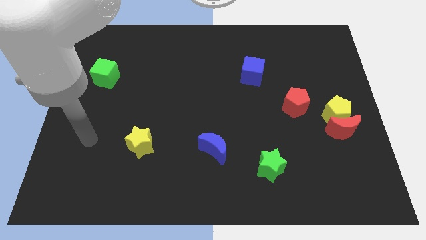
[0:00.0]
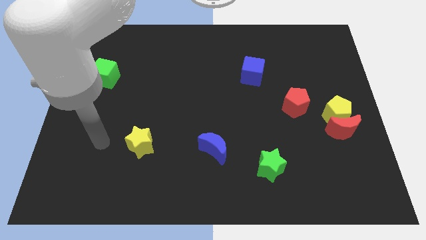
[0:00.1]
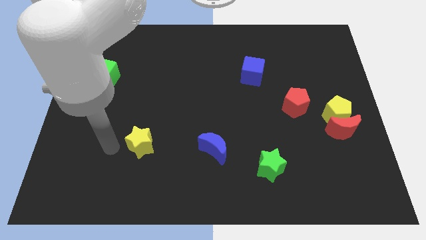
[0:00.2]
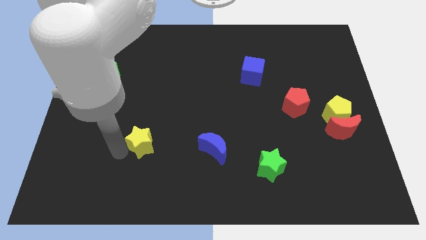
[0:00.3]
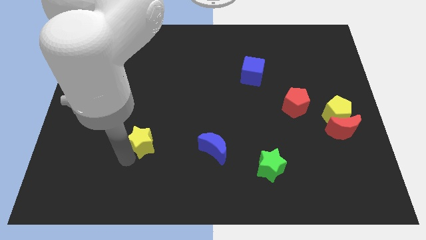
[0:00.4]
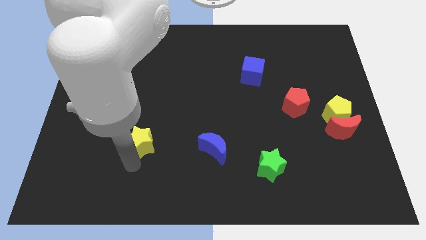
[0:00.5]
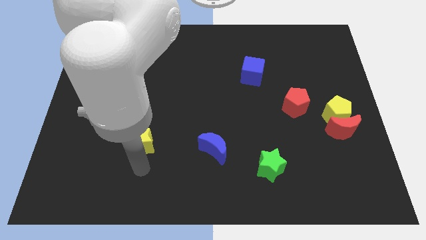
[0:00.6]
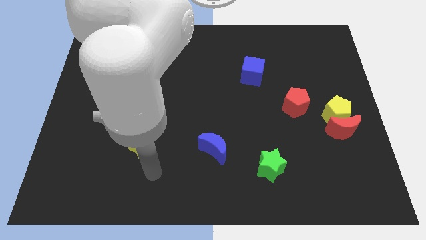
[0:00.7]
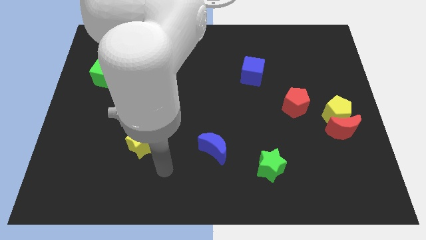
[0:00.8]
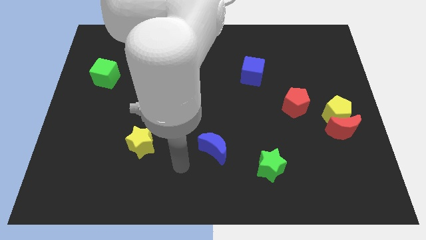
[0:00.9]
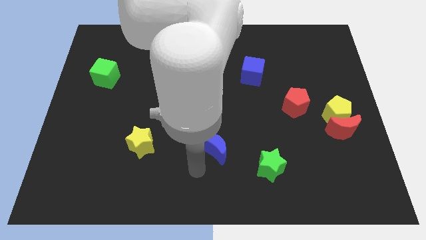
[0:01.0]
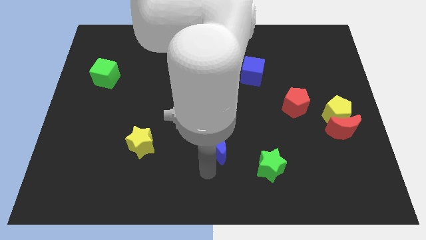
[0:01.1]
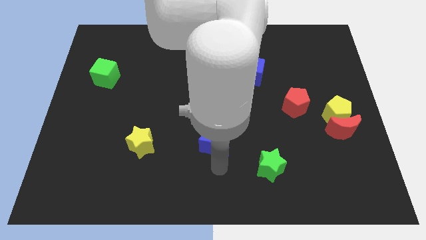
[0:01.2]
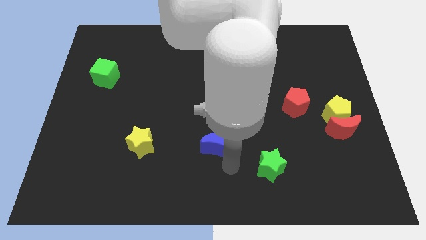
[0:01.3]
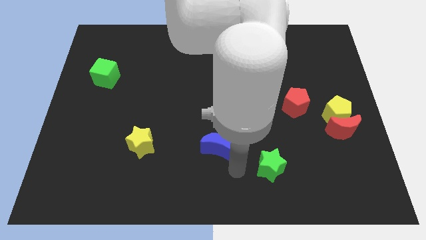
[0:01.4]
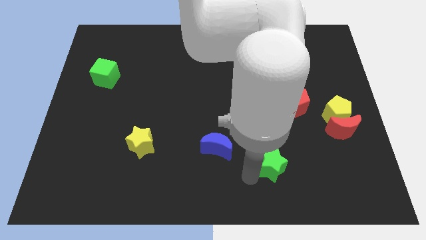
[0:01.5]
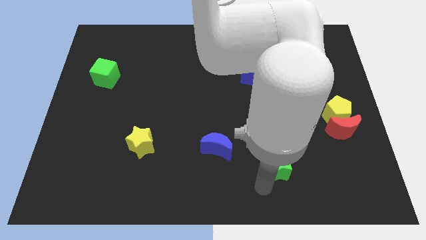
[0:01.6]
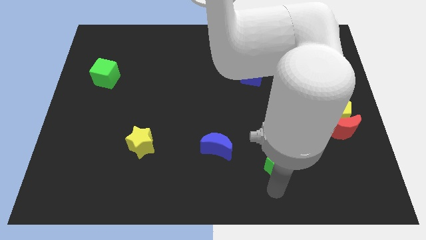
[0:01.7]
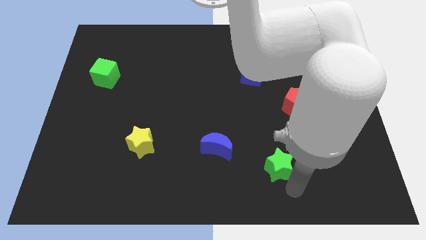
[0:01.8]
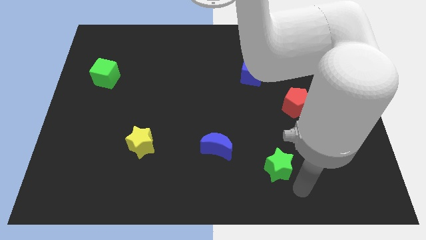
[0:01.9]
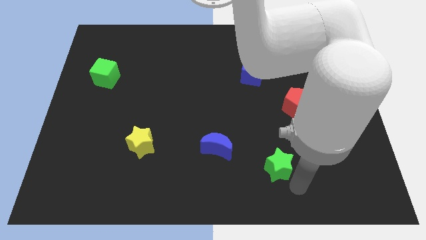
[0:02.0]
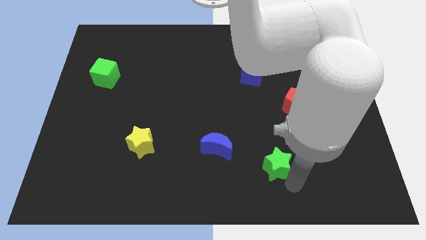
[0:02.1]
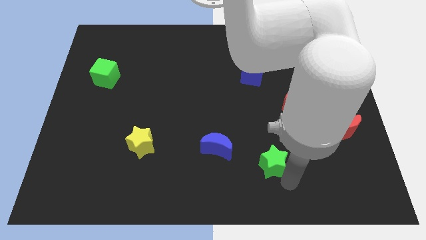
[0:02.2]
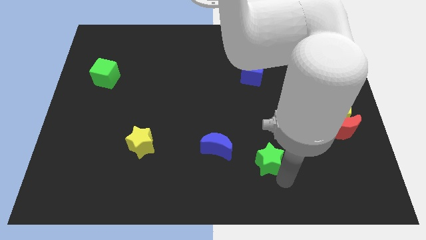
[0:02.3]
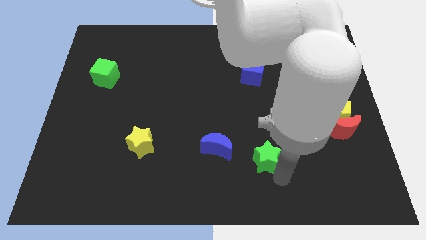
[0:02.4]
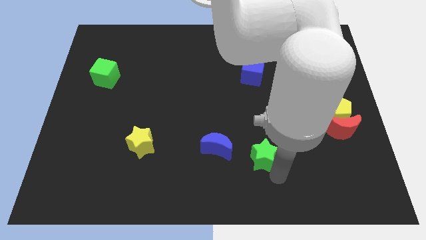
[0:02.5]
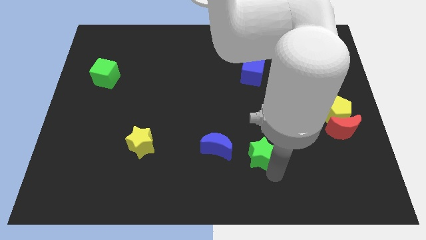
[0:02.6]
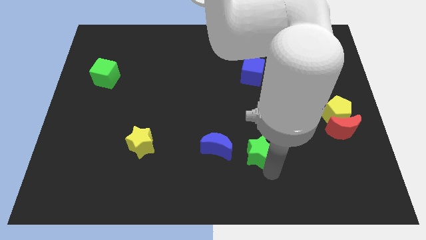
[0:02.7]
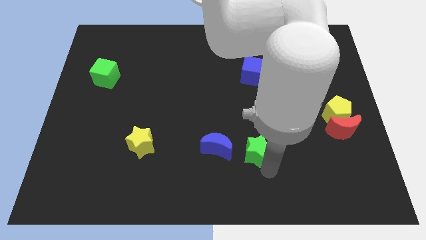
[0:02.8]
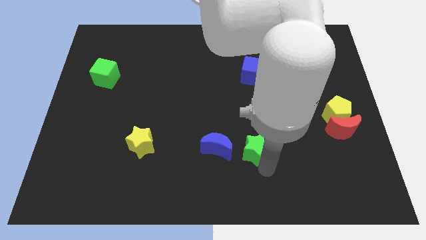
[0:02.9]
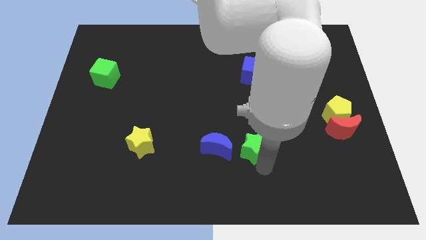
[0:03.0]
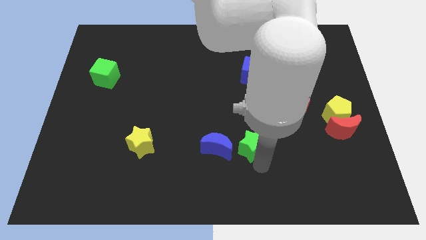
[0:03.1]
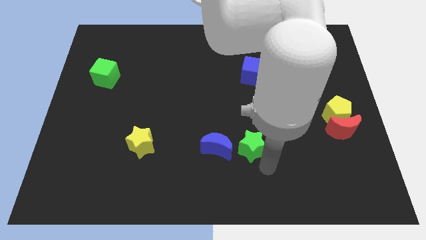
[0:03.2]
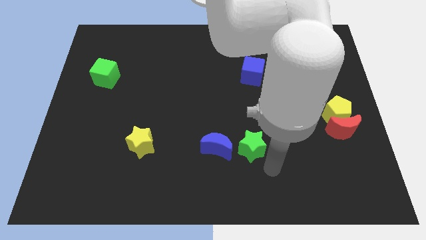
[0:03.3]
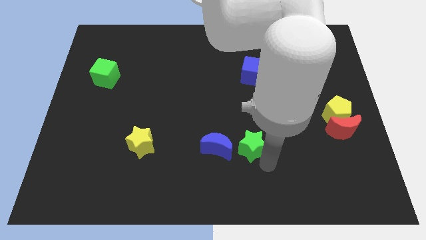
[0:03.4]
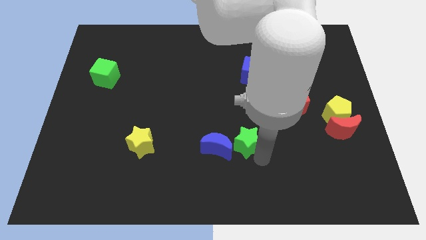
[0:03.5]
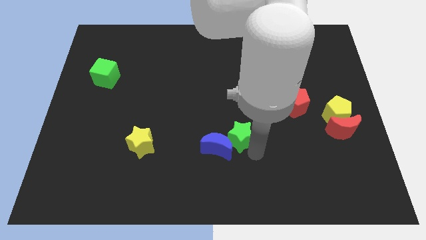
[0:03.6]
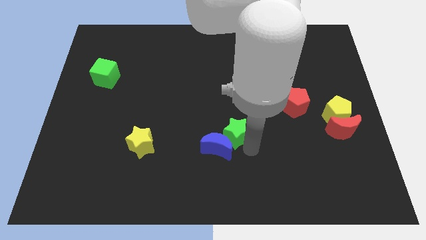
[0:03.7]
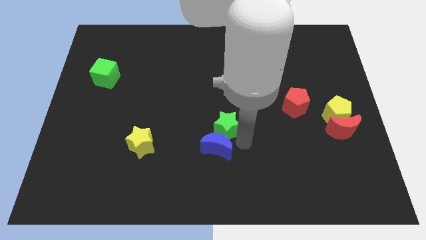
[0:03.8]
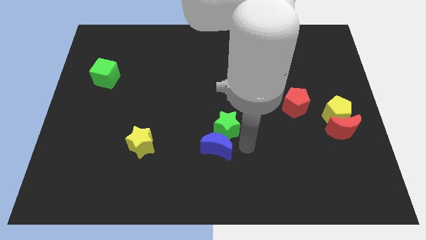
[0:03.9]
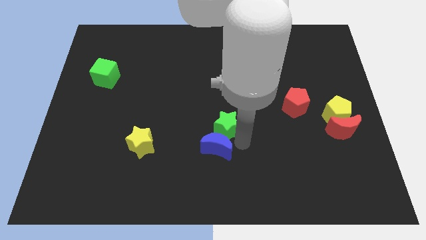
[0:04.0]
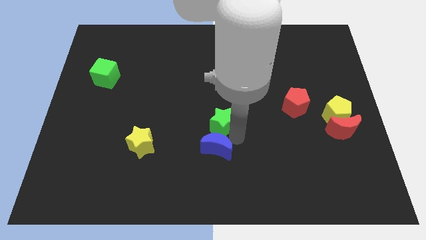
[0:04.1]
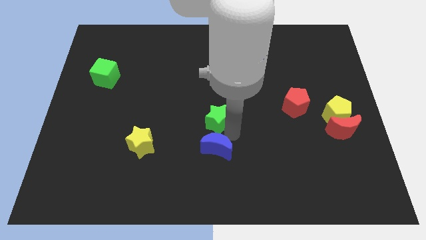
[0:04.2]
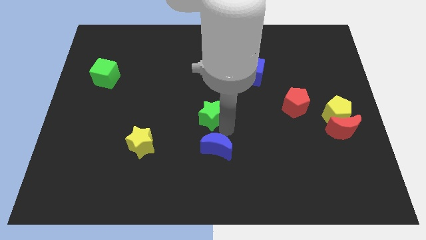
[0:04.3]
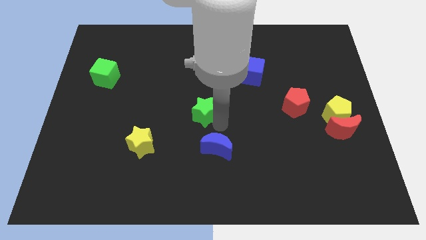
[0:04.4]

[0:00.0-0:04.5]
push the green star diagonally upwards and left

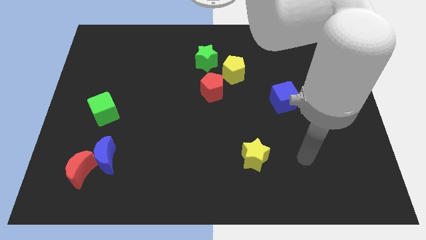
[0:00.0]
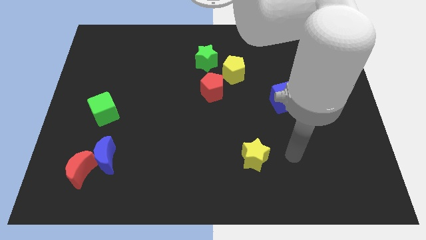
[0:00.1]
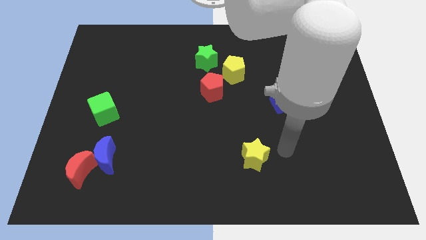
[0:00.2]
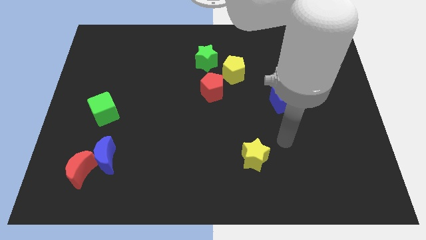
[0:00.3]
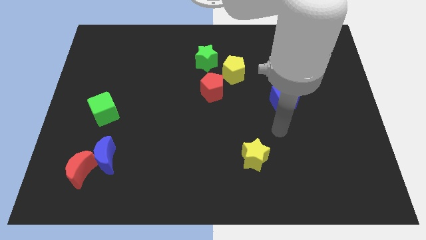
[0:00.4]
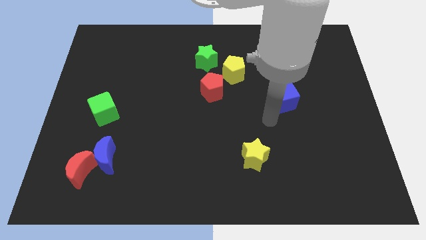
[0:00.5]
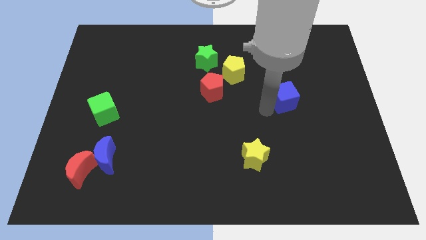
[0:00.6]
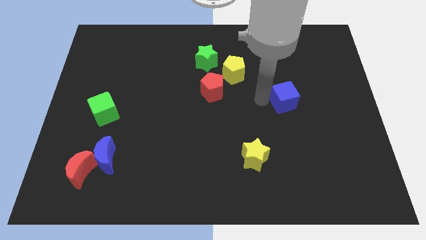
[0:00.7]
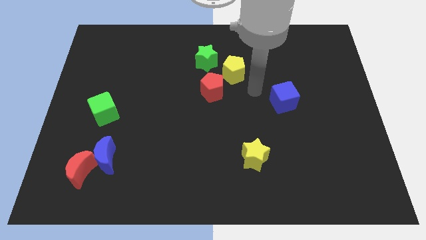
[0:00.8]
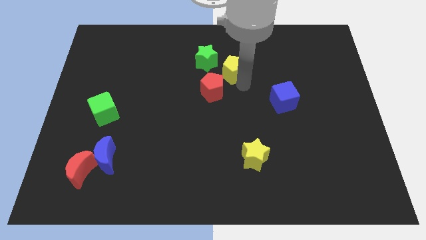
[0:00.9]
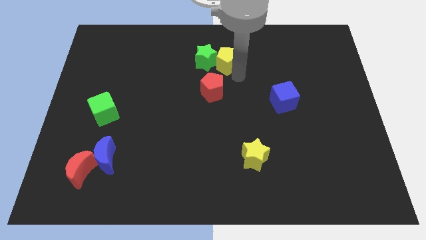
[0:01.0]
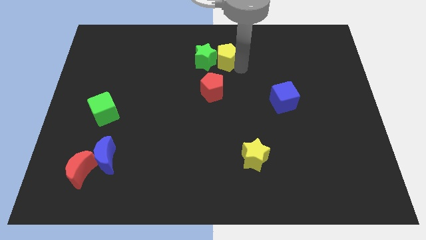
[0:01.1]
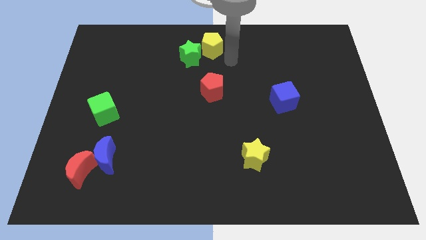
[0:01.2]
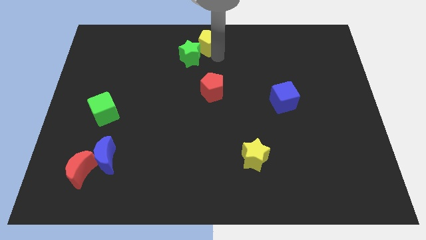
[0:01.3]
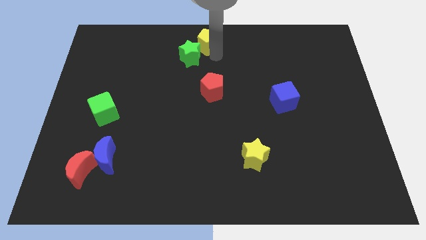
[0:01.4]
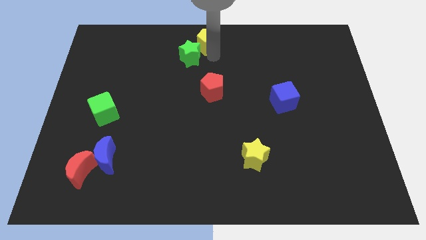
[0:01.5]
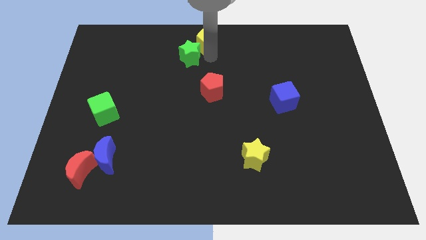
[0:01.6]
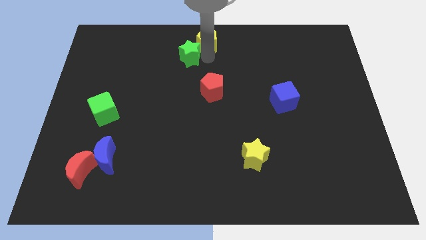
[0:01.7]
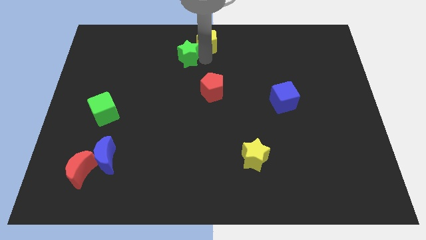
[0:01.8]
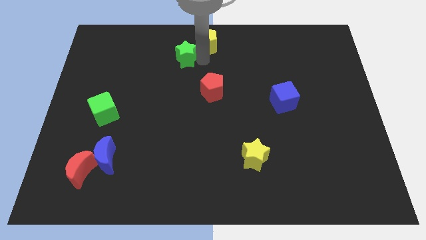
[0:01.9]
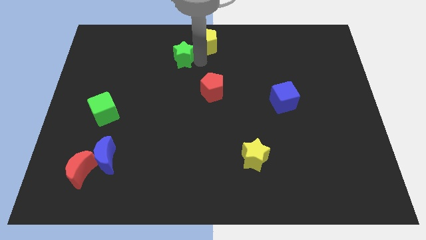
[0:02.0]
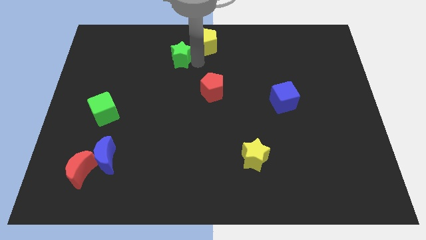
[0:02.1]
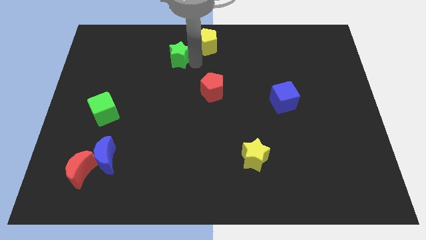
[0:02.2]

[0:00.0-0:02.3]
push the green star somewhat to the left

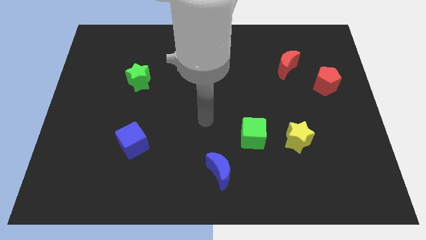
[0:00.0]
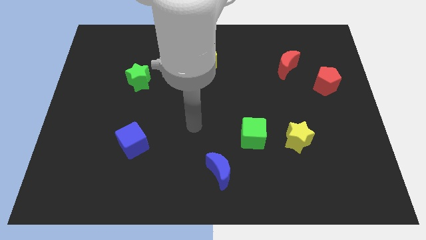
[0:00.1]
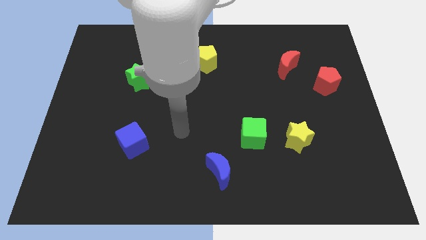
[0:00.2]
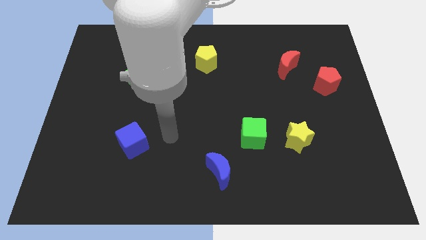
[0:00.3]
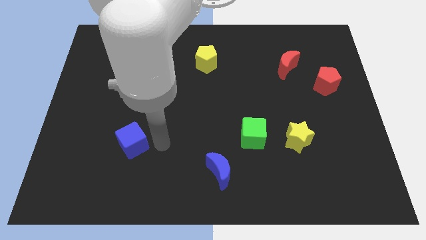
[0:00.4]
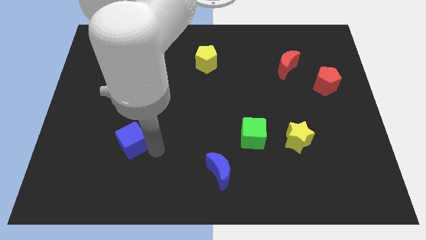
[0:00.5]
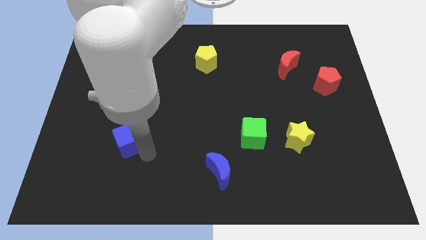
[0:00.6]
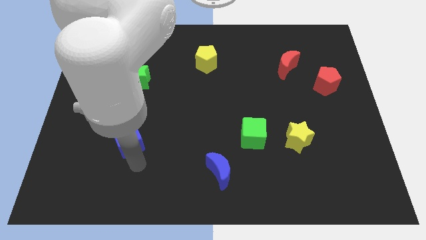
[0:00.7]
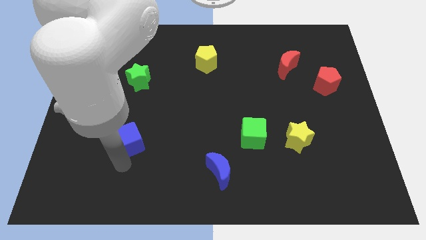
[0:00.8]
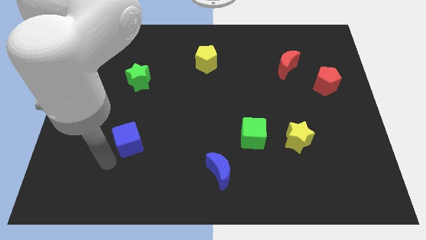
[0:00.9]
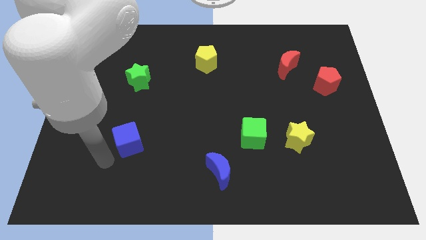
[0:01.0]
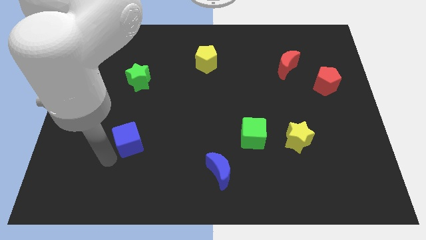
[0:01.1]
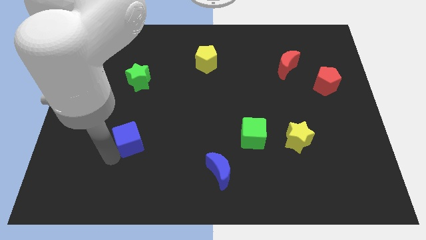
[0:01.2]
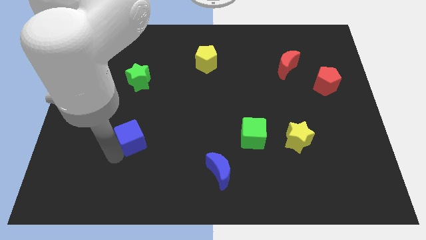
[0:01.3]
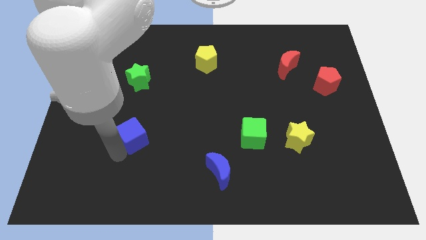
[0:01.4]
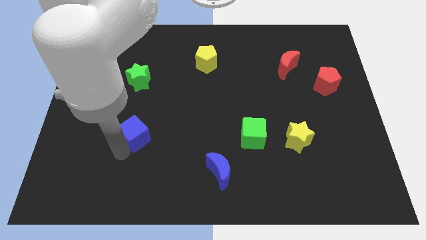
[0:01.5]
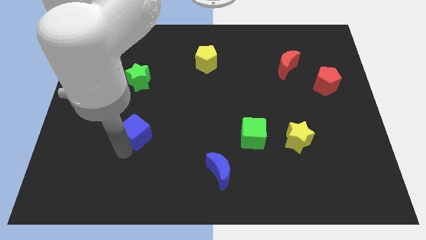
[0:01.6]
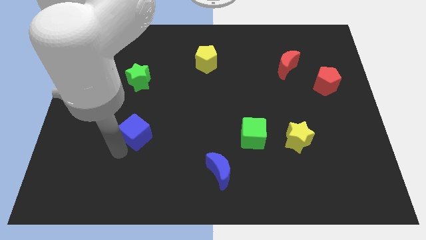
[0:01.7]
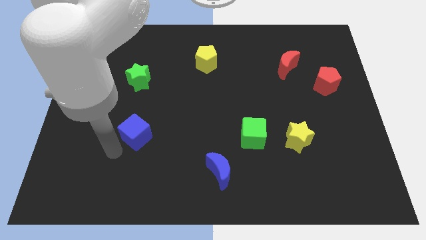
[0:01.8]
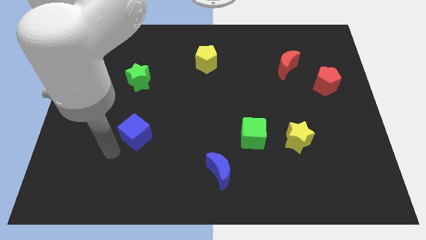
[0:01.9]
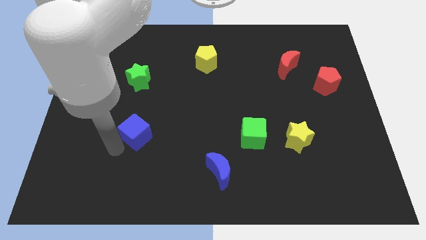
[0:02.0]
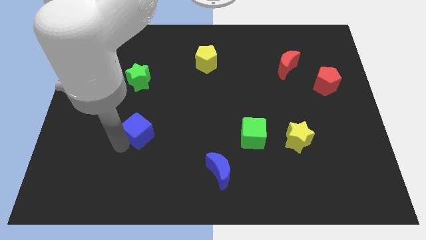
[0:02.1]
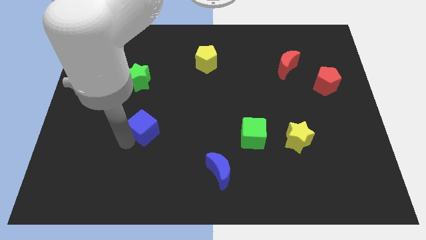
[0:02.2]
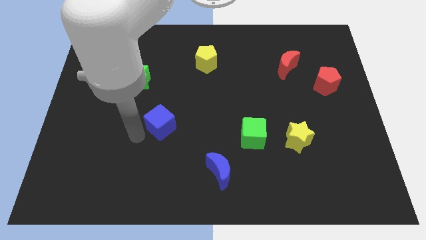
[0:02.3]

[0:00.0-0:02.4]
push the blue cube somewhat diagonally upwards and right
